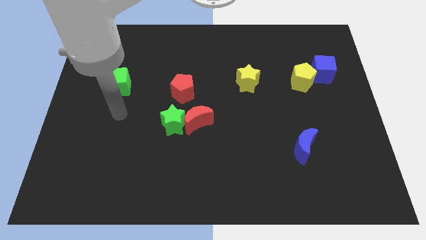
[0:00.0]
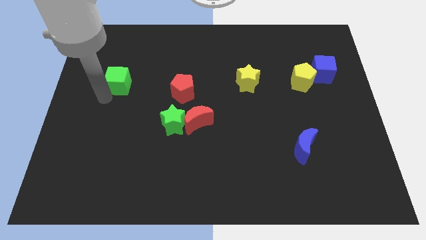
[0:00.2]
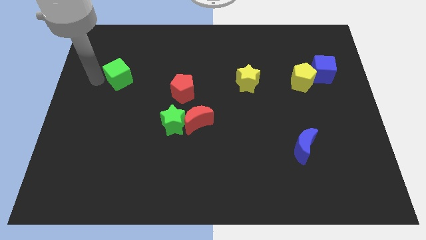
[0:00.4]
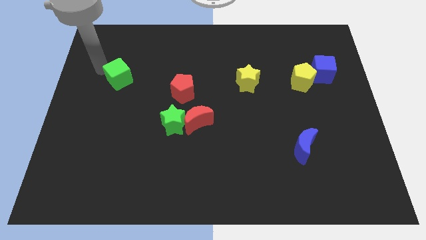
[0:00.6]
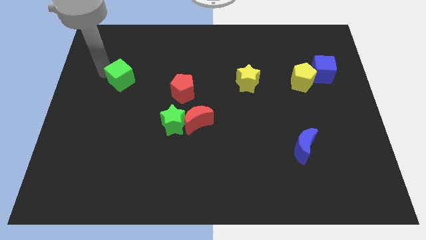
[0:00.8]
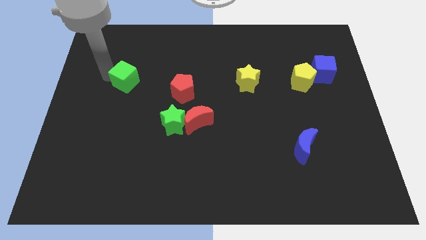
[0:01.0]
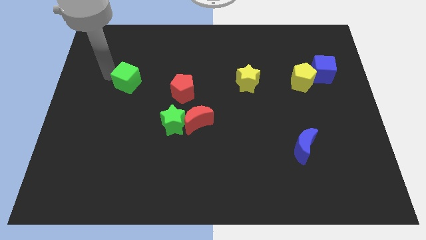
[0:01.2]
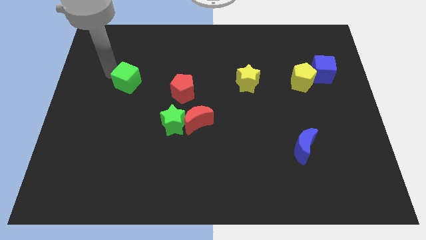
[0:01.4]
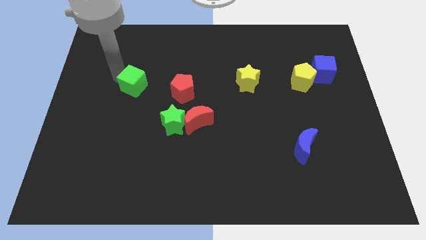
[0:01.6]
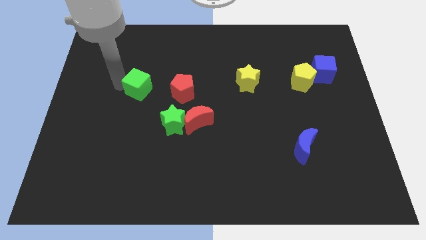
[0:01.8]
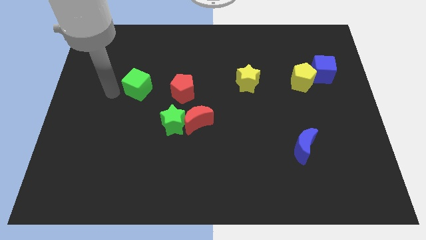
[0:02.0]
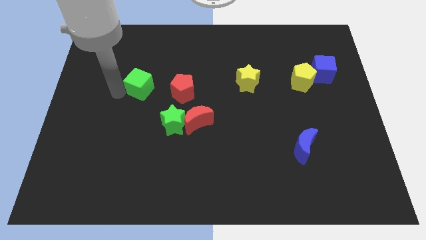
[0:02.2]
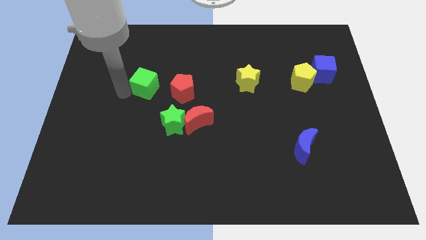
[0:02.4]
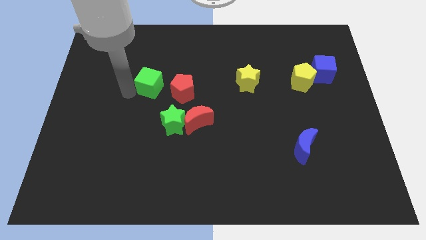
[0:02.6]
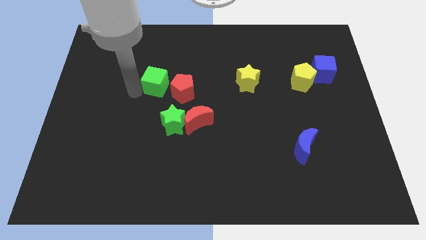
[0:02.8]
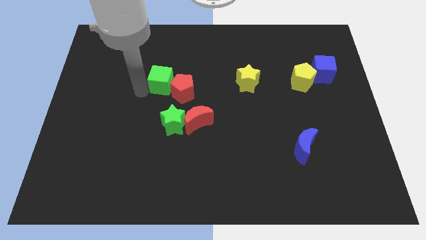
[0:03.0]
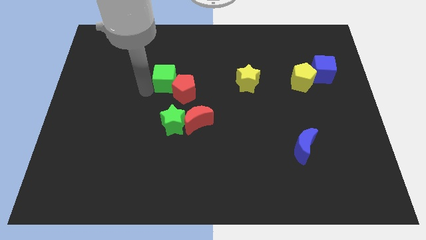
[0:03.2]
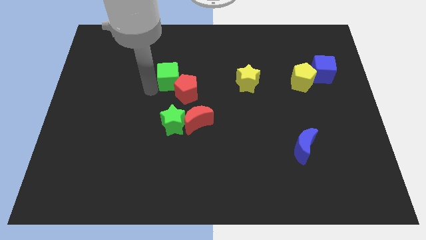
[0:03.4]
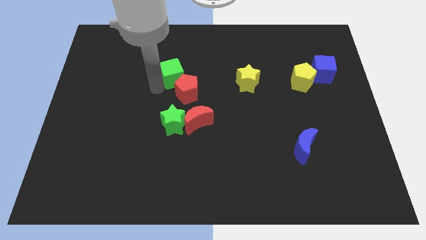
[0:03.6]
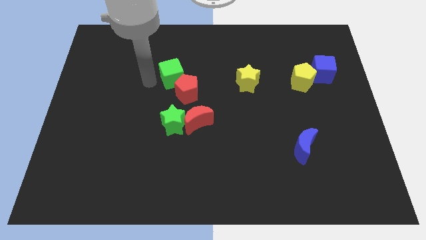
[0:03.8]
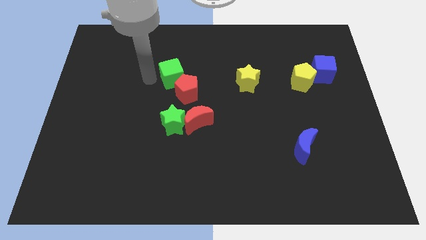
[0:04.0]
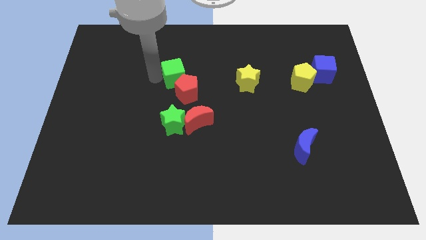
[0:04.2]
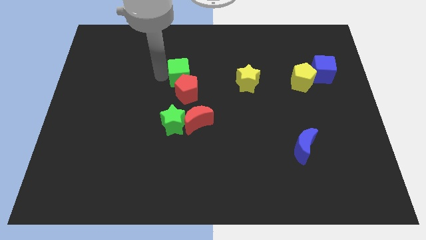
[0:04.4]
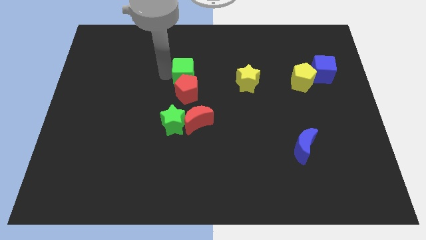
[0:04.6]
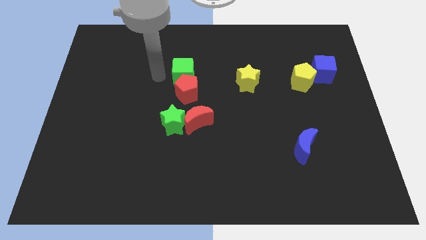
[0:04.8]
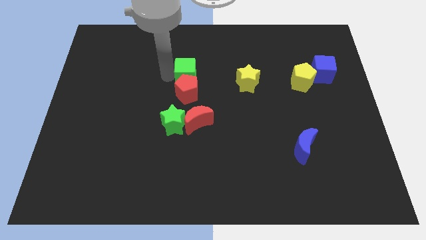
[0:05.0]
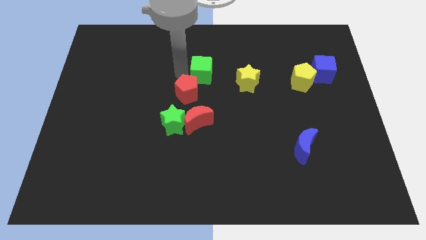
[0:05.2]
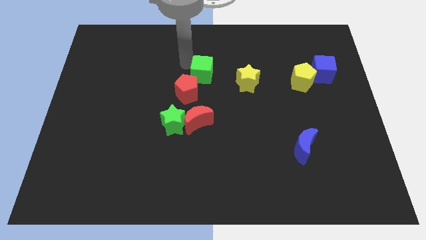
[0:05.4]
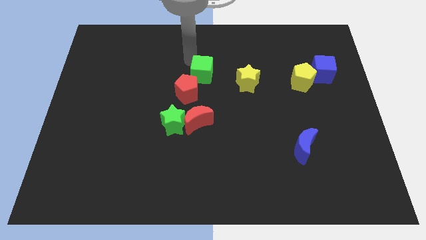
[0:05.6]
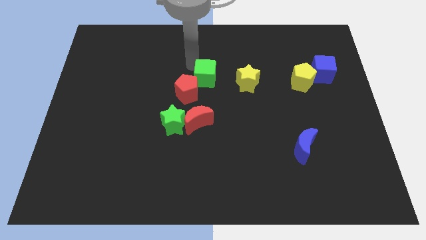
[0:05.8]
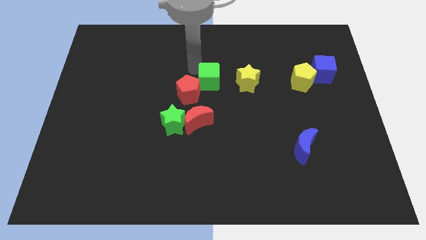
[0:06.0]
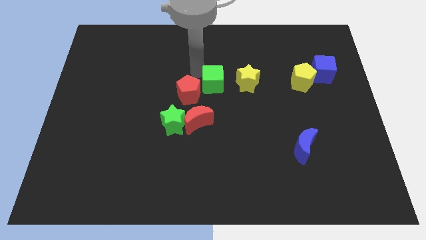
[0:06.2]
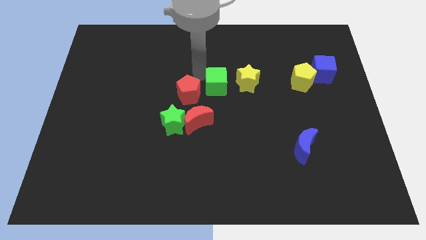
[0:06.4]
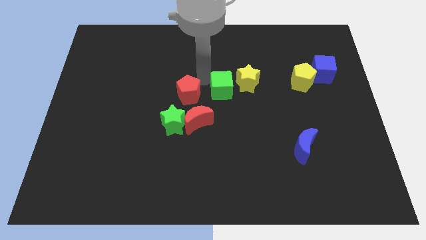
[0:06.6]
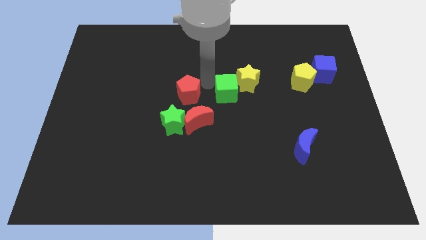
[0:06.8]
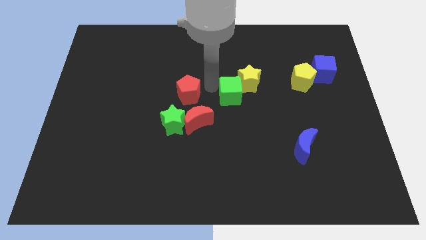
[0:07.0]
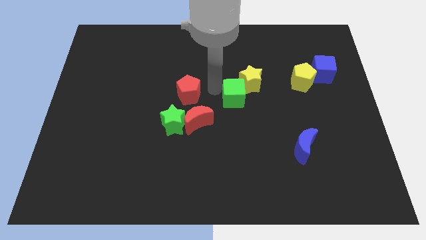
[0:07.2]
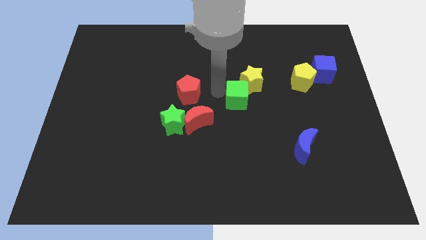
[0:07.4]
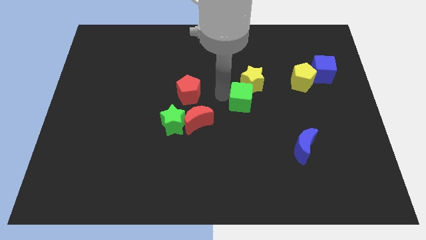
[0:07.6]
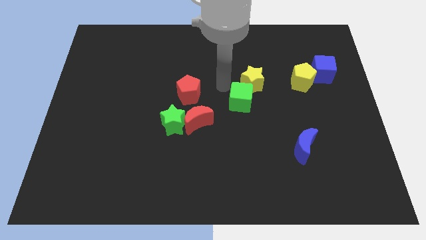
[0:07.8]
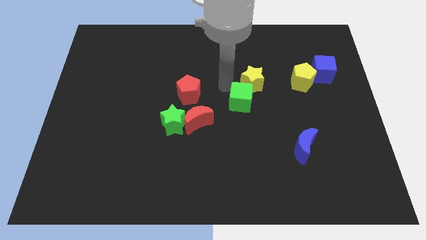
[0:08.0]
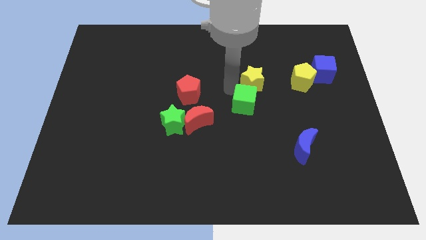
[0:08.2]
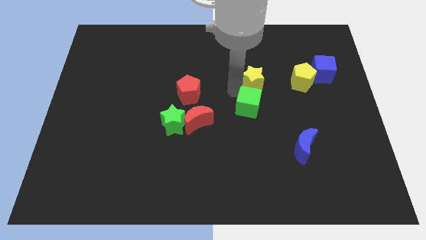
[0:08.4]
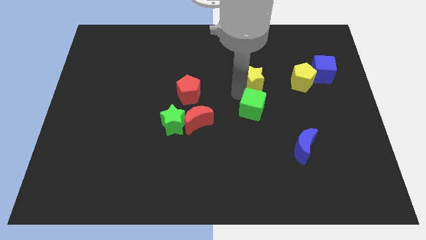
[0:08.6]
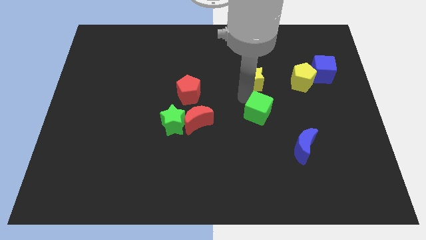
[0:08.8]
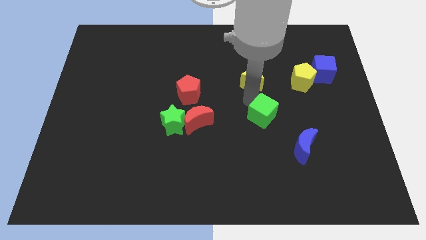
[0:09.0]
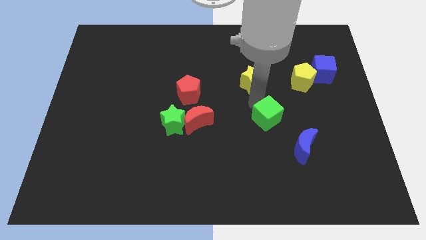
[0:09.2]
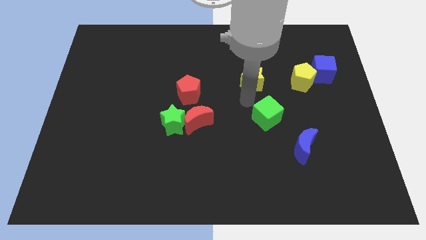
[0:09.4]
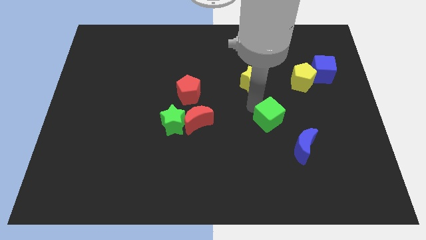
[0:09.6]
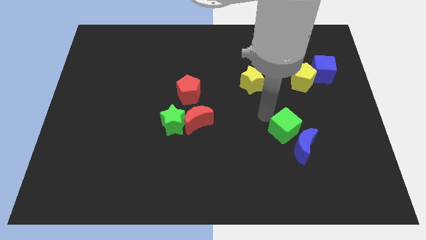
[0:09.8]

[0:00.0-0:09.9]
push the green cube next to the blue moon

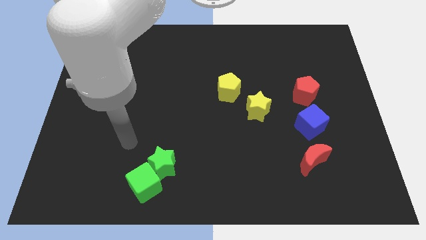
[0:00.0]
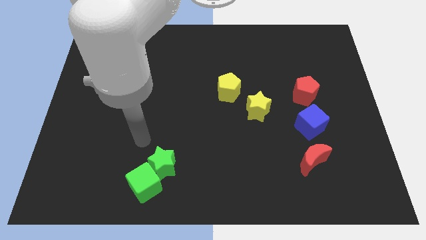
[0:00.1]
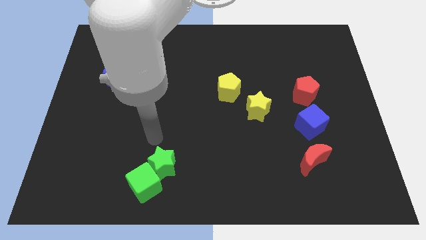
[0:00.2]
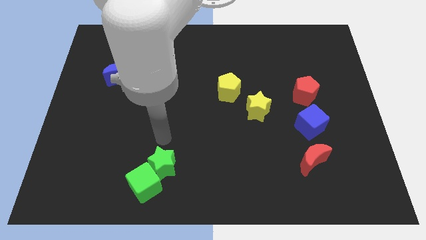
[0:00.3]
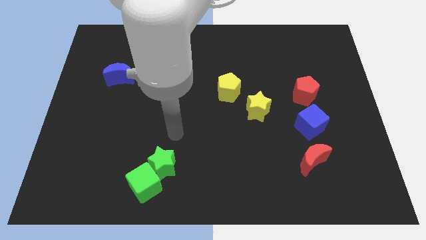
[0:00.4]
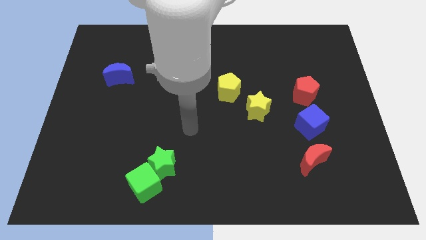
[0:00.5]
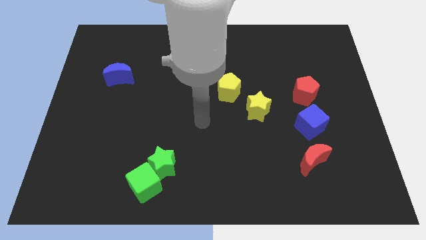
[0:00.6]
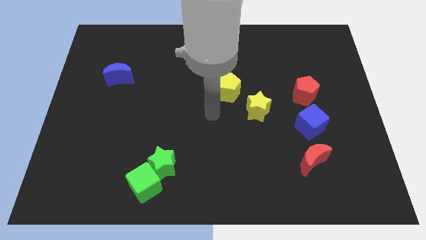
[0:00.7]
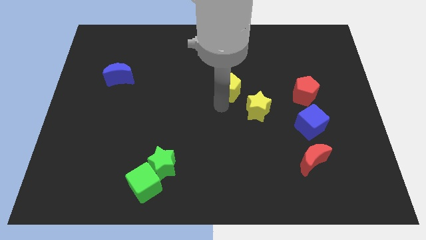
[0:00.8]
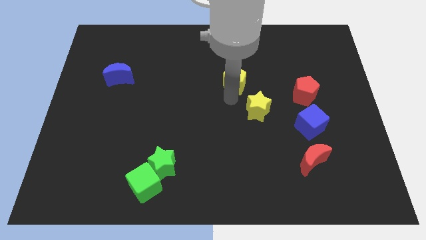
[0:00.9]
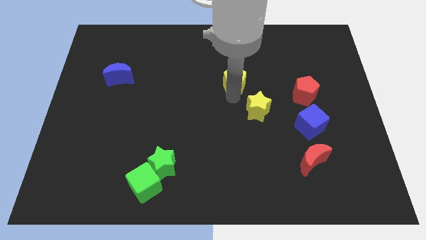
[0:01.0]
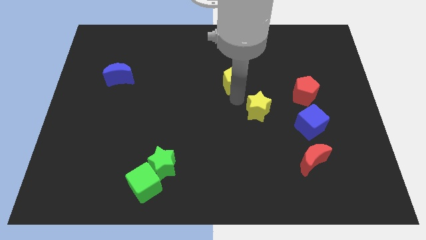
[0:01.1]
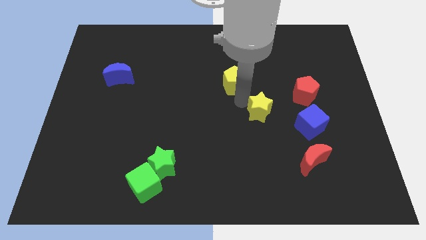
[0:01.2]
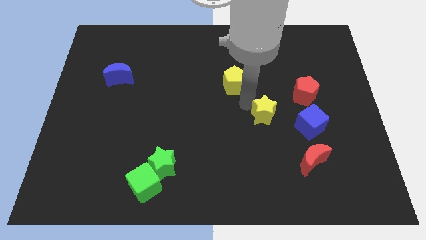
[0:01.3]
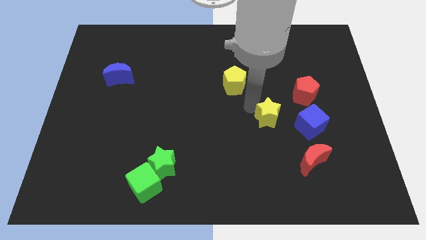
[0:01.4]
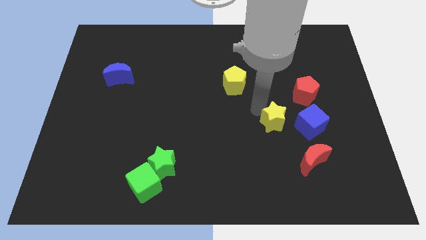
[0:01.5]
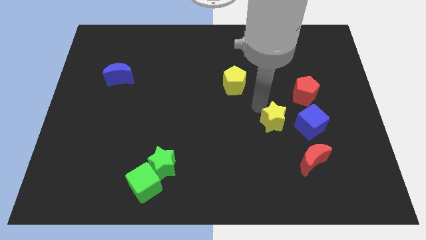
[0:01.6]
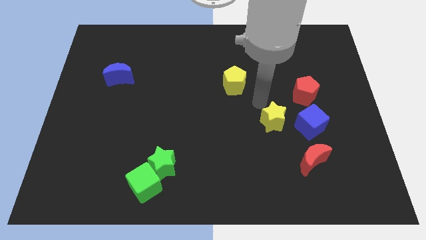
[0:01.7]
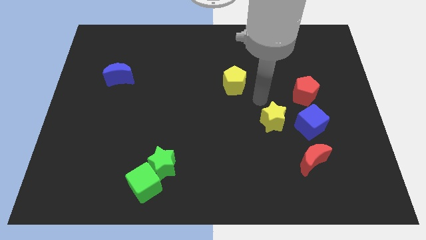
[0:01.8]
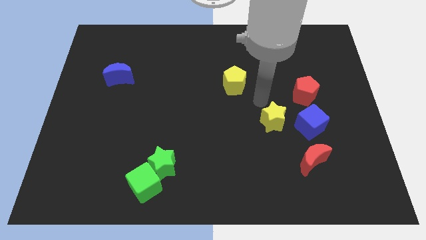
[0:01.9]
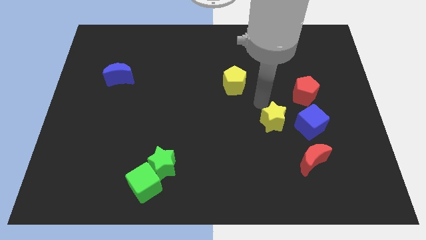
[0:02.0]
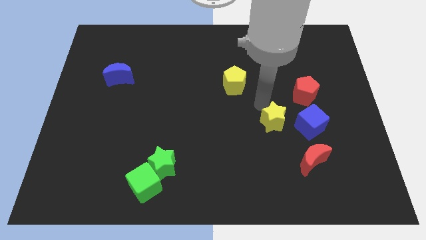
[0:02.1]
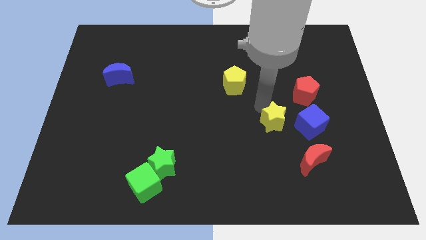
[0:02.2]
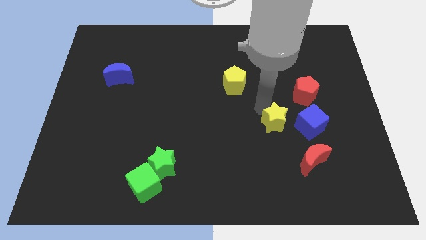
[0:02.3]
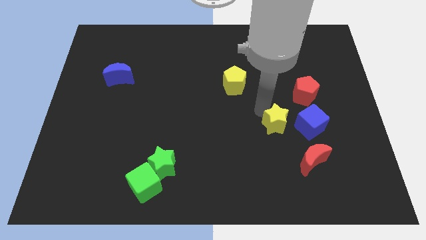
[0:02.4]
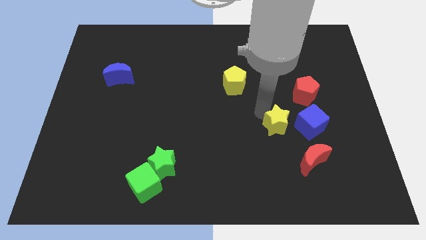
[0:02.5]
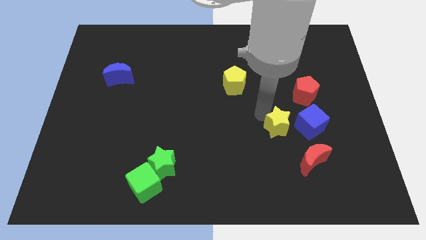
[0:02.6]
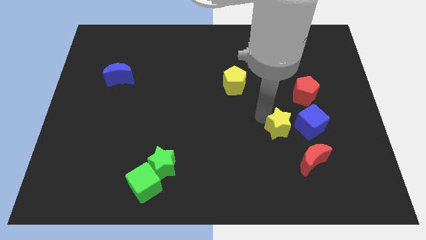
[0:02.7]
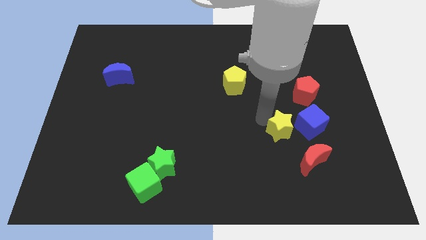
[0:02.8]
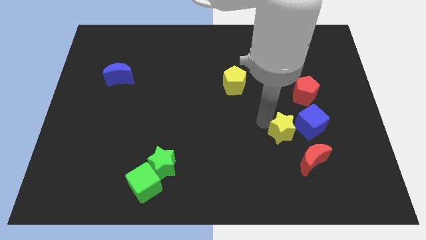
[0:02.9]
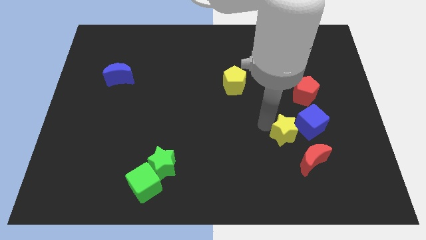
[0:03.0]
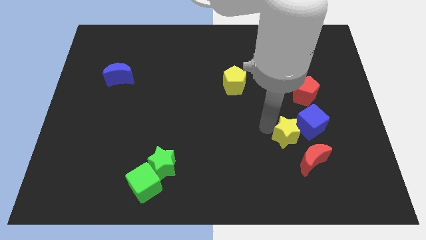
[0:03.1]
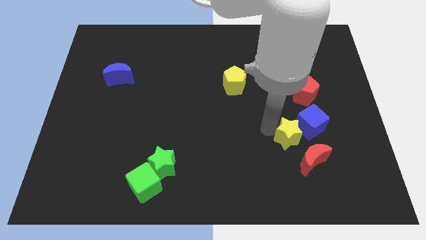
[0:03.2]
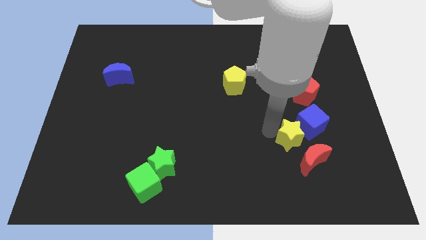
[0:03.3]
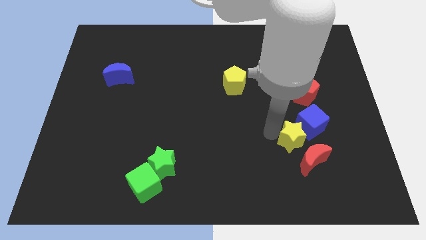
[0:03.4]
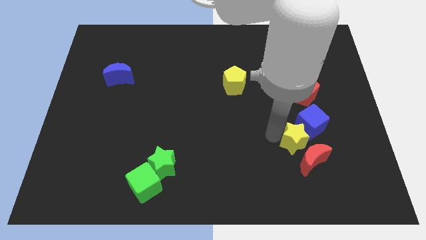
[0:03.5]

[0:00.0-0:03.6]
move the yellow star towards the red moon
